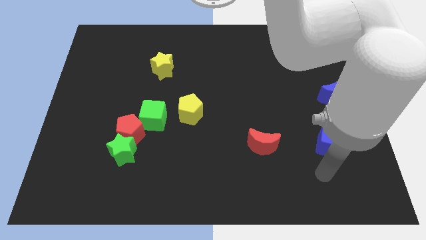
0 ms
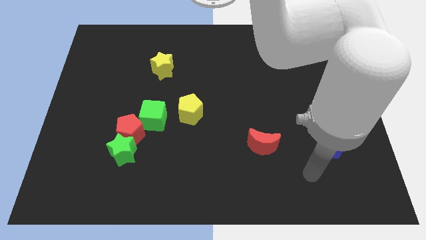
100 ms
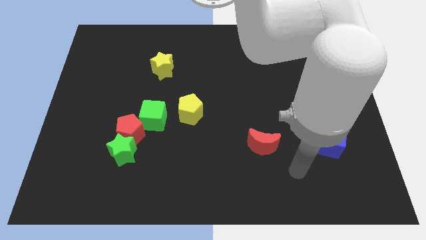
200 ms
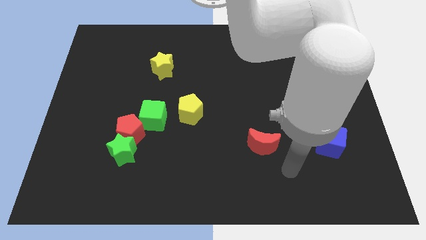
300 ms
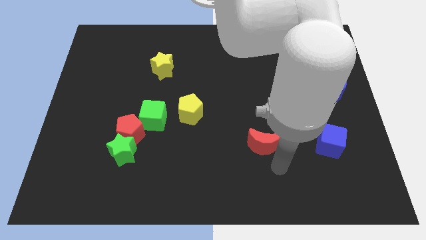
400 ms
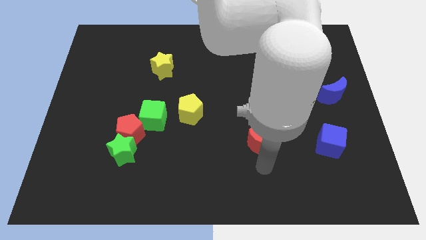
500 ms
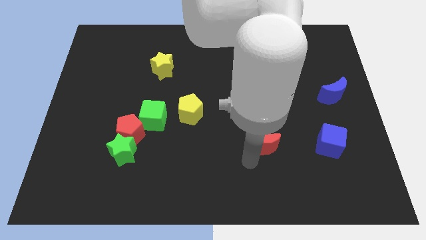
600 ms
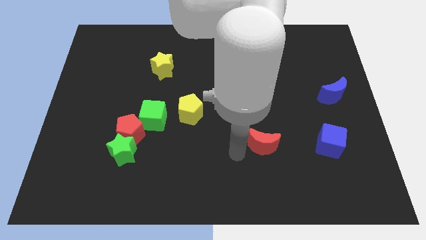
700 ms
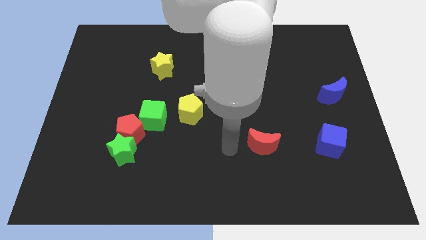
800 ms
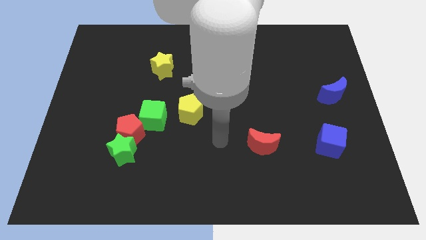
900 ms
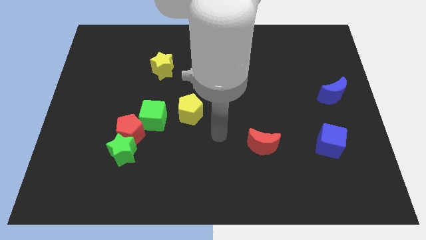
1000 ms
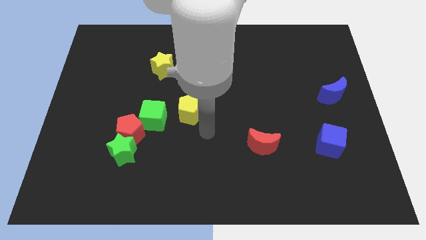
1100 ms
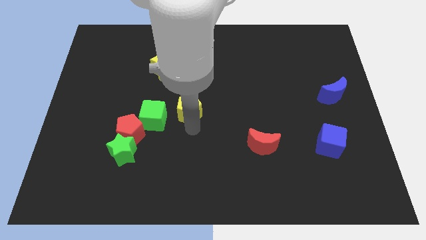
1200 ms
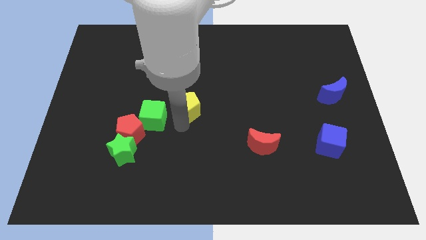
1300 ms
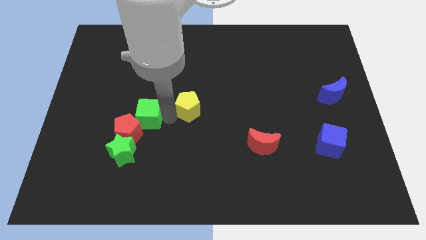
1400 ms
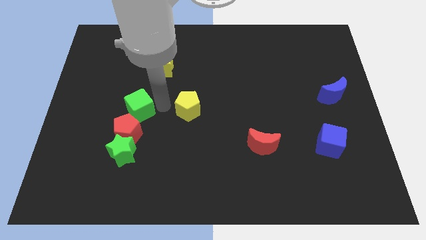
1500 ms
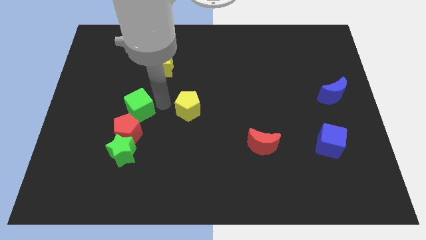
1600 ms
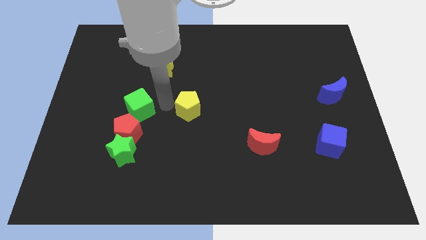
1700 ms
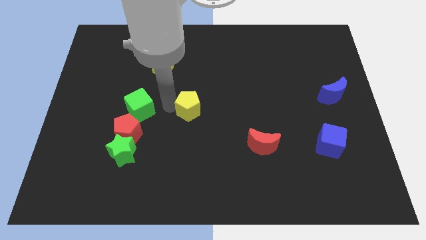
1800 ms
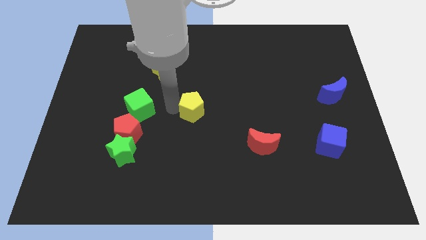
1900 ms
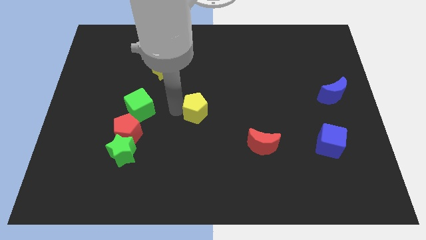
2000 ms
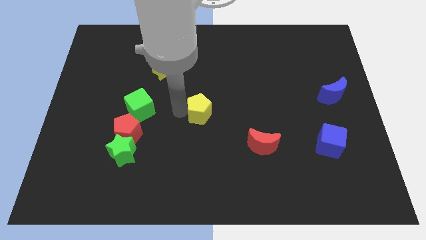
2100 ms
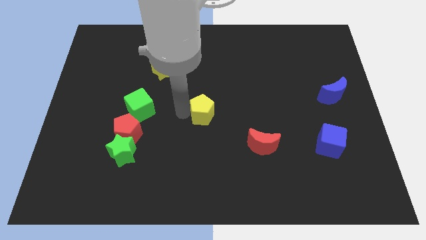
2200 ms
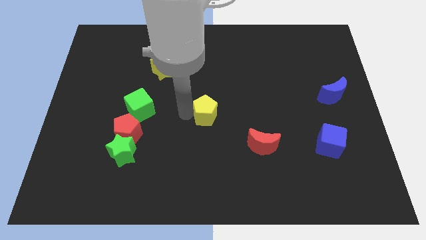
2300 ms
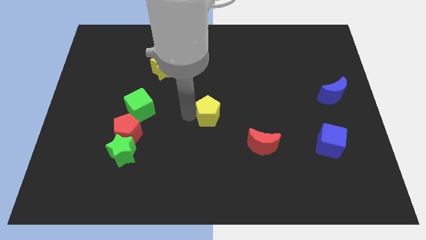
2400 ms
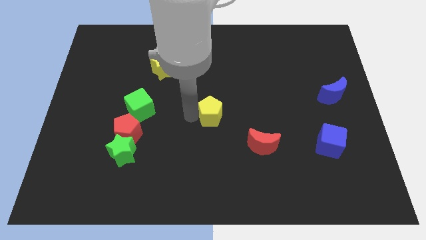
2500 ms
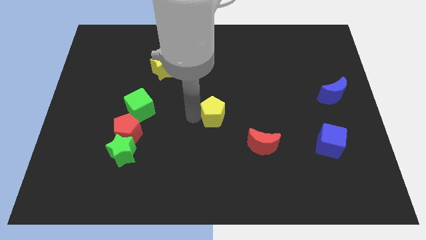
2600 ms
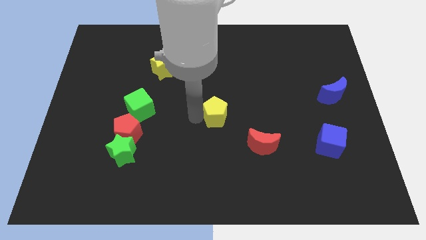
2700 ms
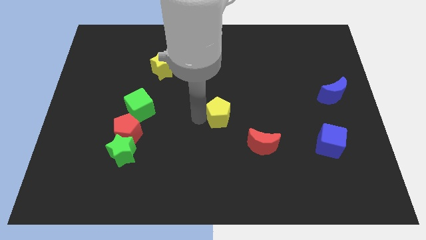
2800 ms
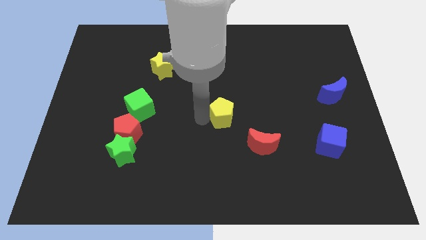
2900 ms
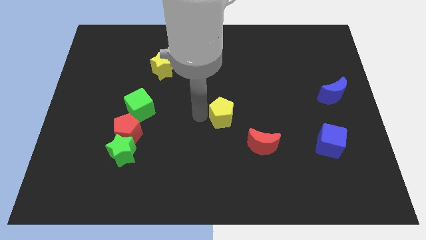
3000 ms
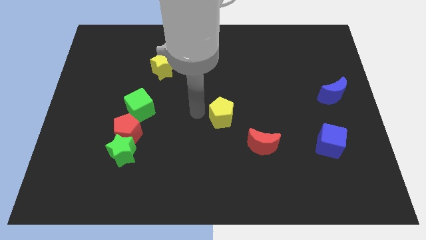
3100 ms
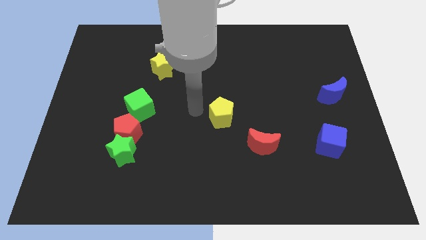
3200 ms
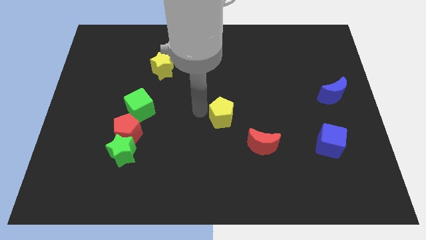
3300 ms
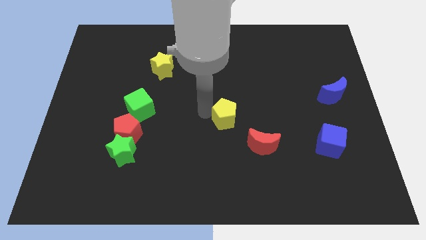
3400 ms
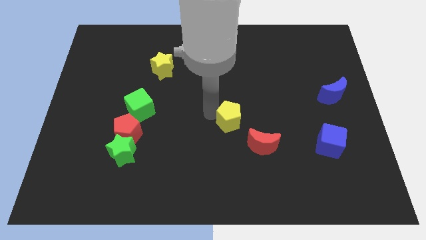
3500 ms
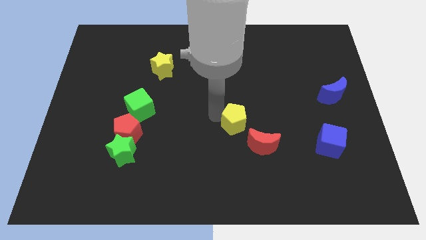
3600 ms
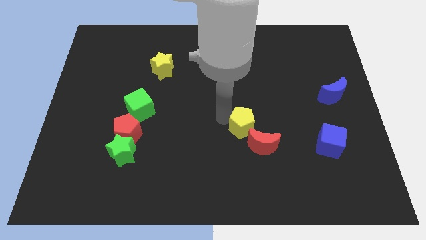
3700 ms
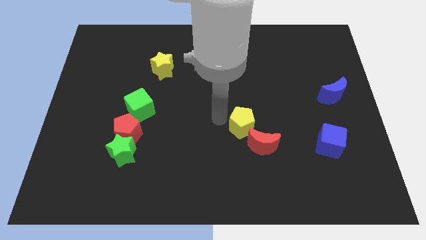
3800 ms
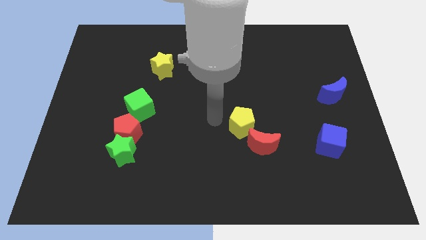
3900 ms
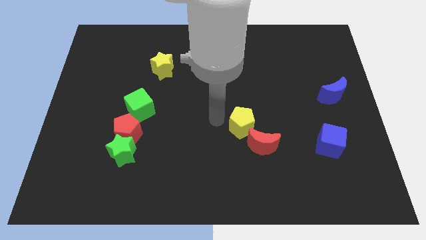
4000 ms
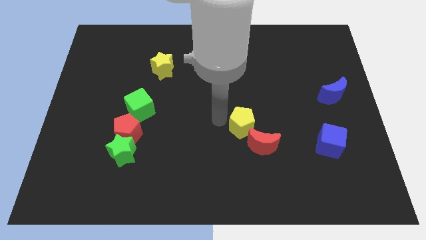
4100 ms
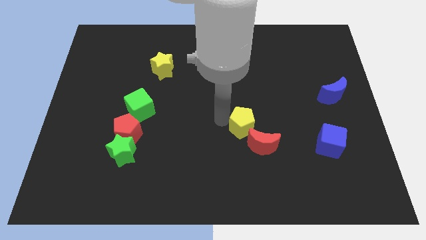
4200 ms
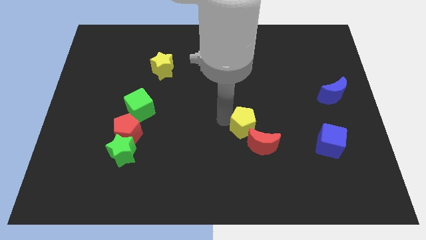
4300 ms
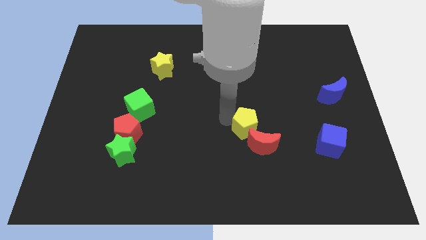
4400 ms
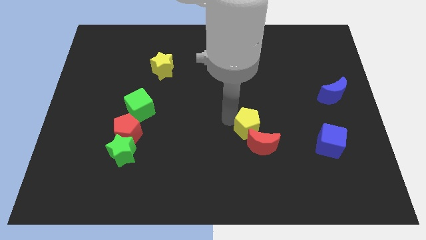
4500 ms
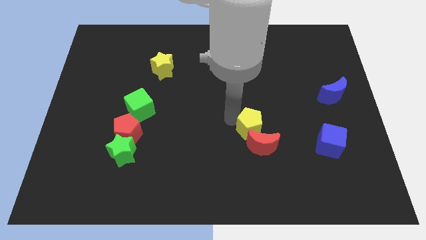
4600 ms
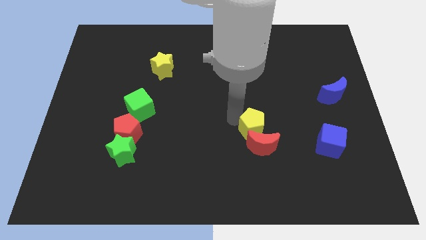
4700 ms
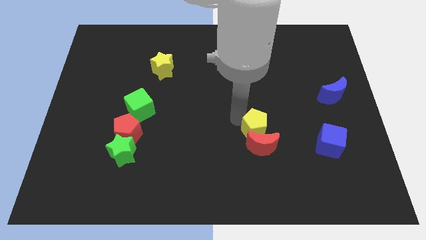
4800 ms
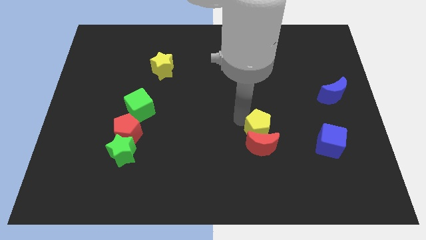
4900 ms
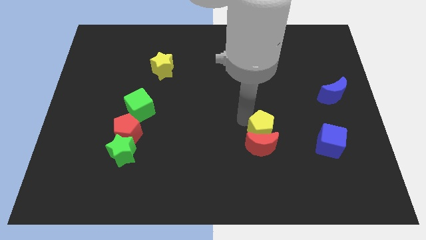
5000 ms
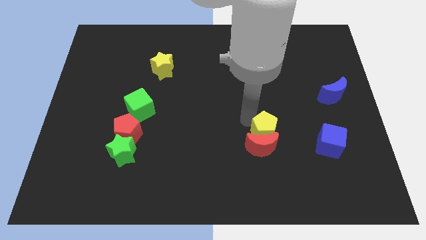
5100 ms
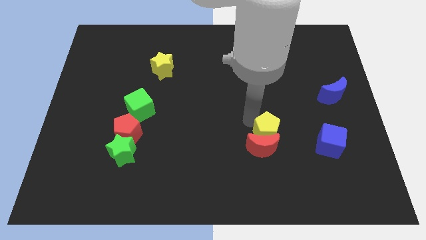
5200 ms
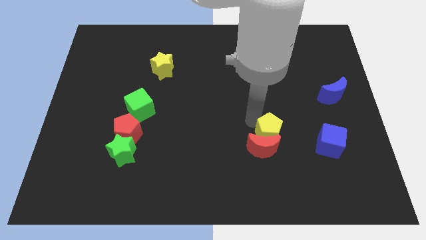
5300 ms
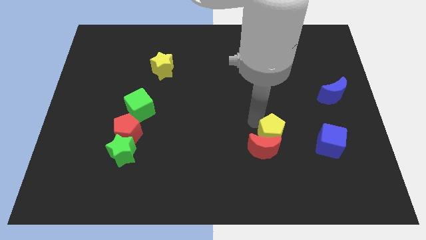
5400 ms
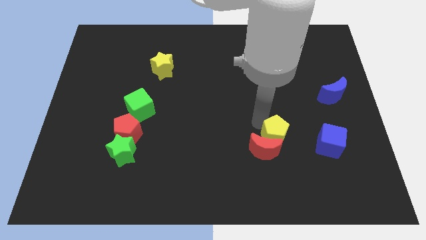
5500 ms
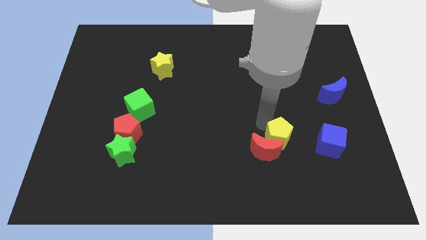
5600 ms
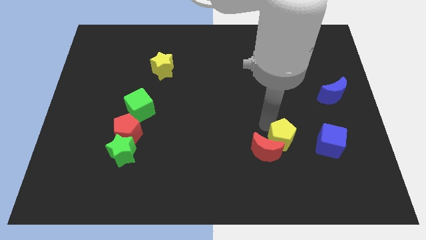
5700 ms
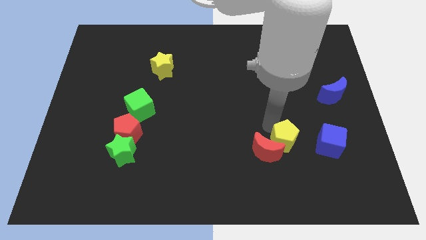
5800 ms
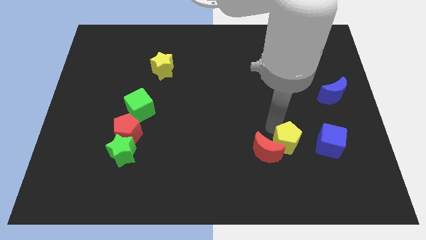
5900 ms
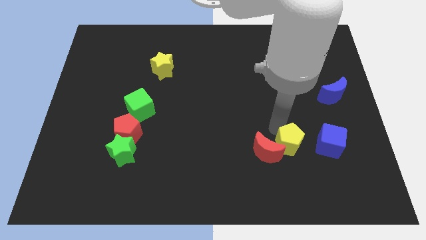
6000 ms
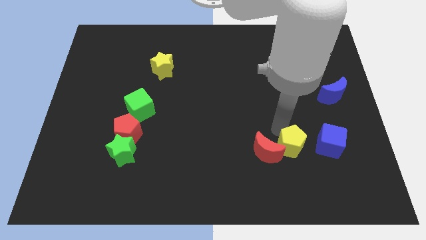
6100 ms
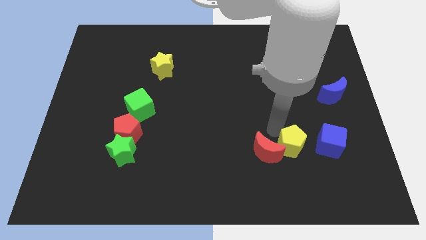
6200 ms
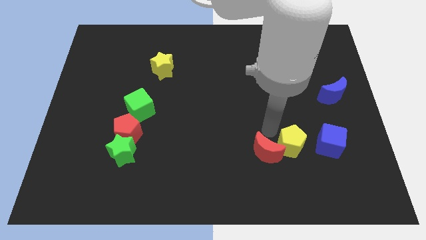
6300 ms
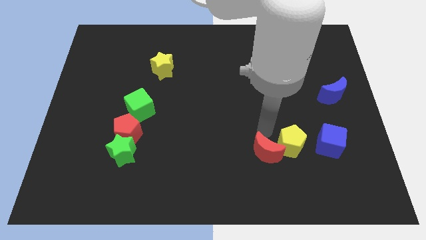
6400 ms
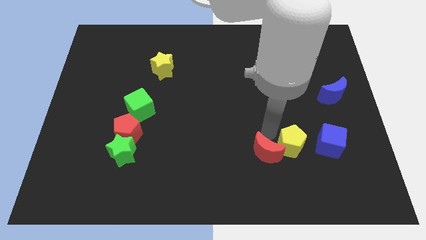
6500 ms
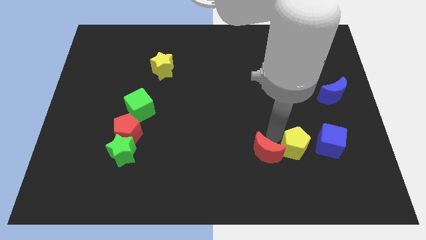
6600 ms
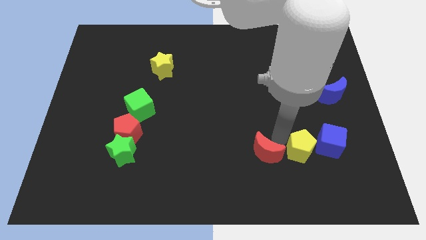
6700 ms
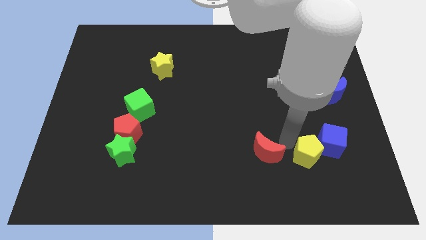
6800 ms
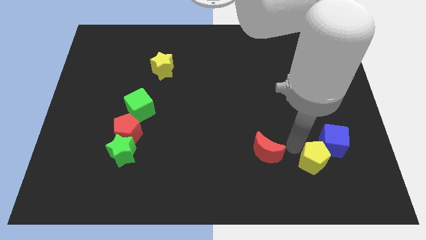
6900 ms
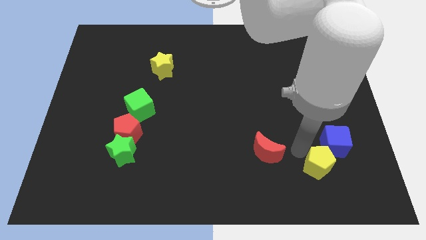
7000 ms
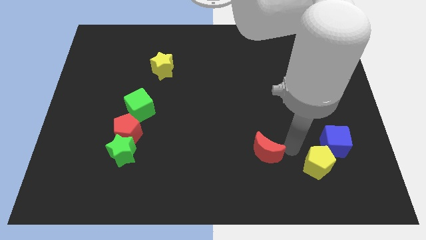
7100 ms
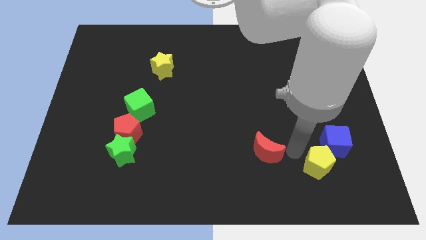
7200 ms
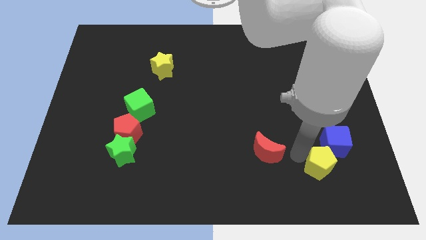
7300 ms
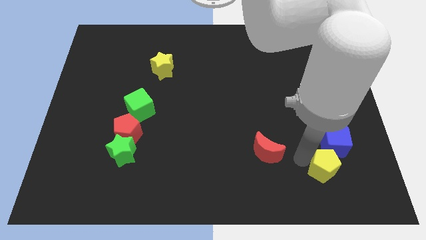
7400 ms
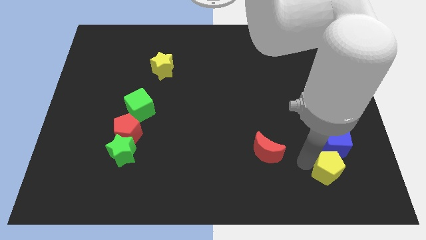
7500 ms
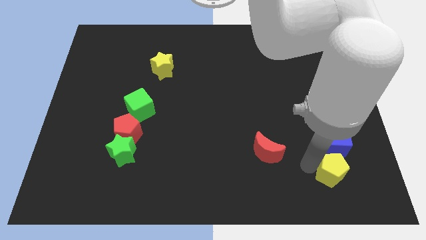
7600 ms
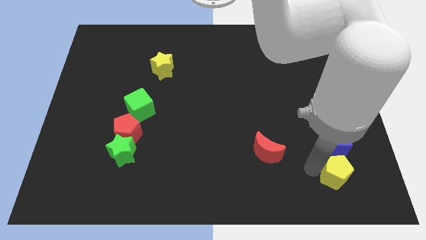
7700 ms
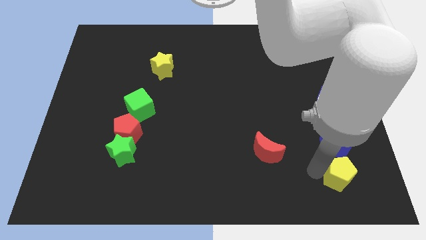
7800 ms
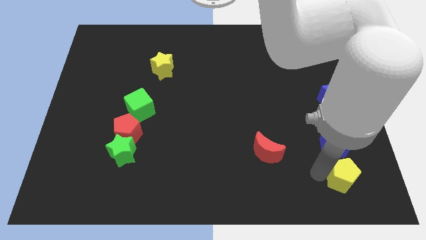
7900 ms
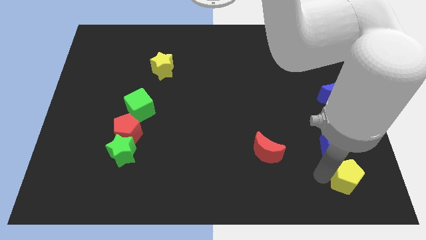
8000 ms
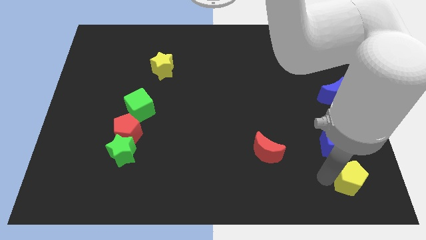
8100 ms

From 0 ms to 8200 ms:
slide the yellow pentagon to the bottom right
